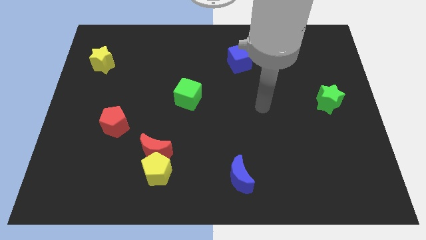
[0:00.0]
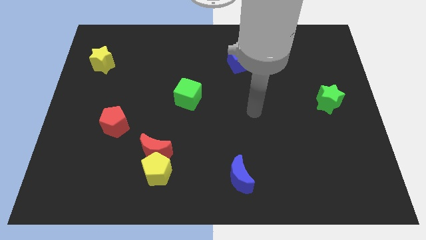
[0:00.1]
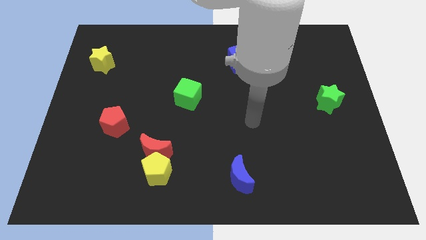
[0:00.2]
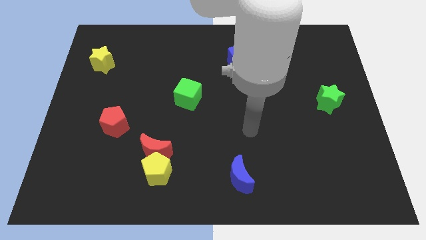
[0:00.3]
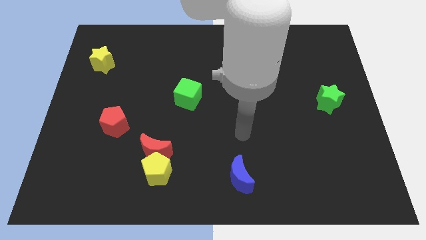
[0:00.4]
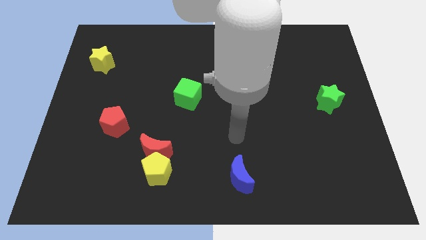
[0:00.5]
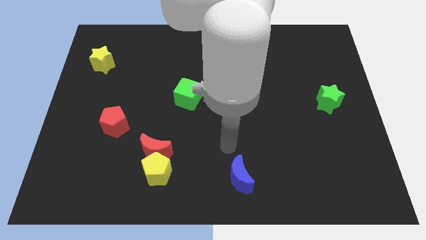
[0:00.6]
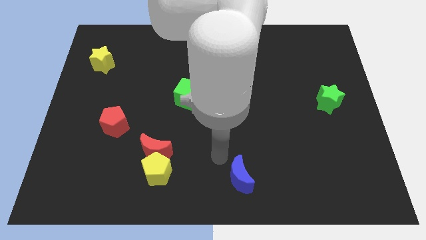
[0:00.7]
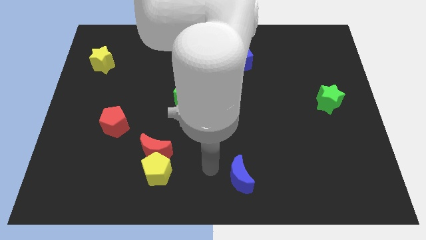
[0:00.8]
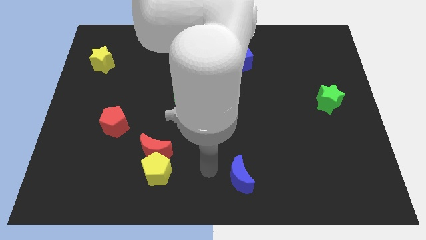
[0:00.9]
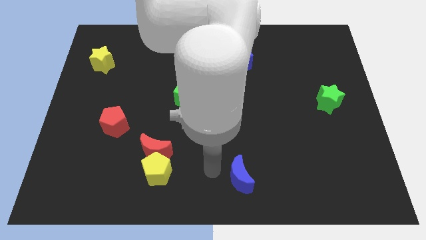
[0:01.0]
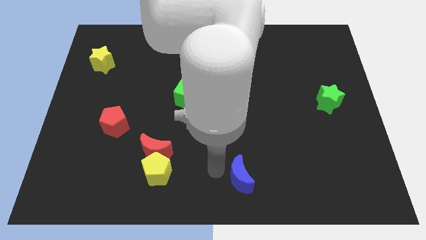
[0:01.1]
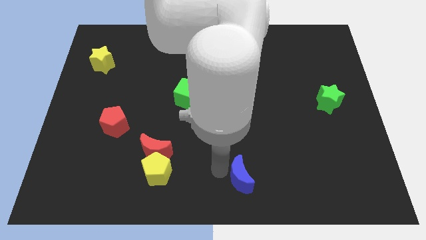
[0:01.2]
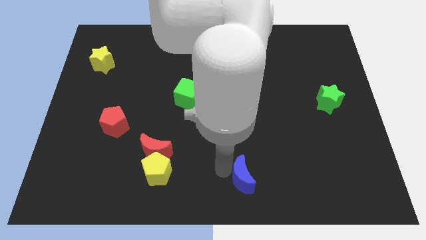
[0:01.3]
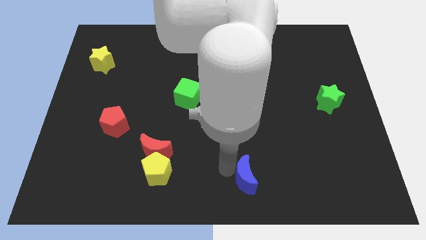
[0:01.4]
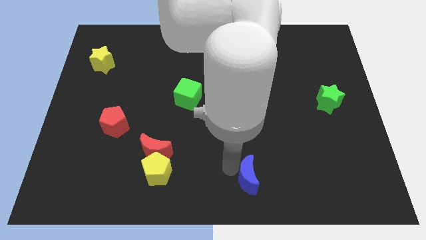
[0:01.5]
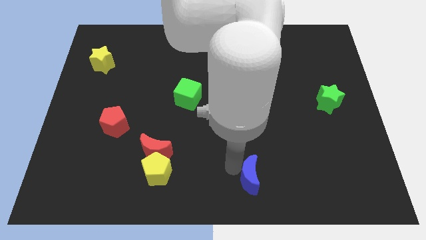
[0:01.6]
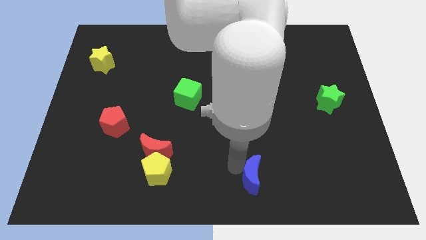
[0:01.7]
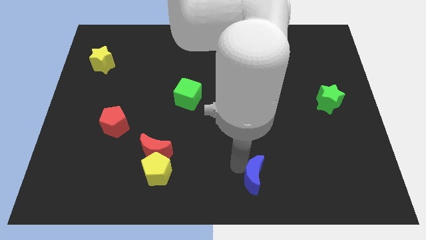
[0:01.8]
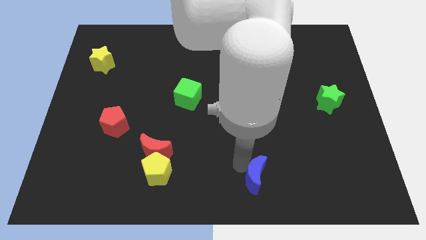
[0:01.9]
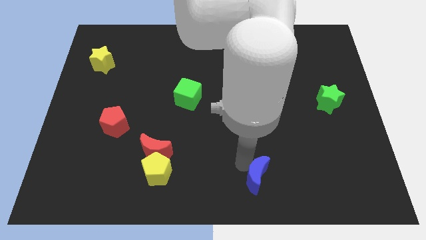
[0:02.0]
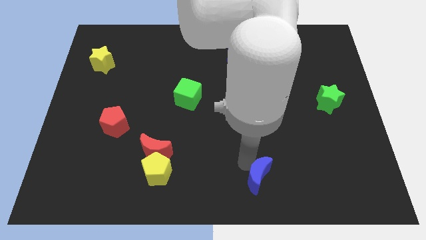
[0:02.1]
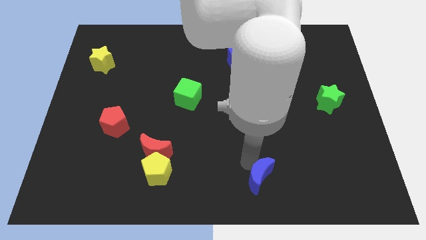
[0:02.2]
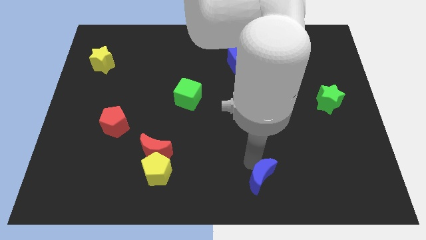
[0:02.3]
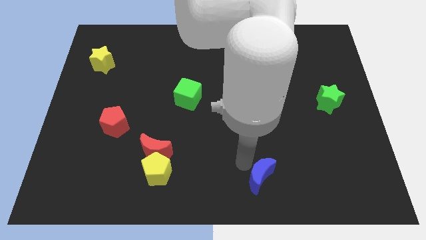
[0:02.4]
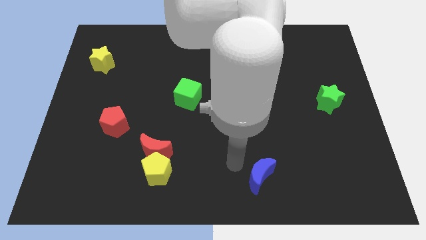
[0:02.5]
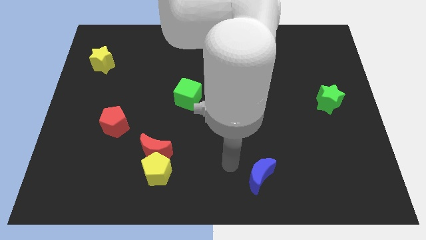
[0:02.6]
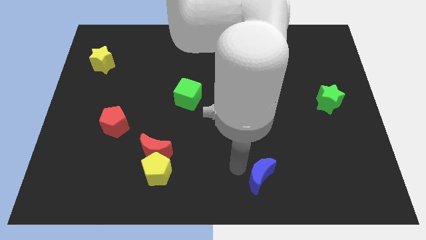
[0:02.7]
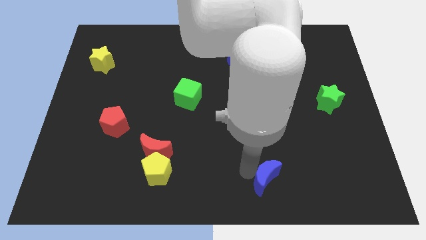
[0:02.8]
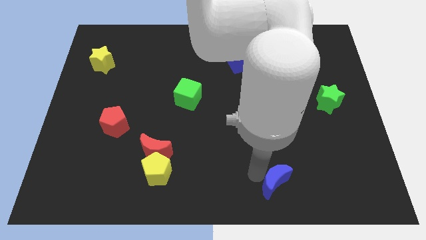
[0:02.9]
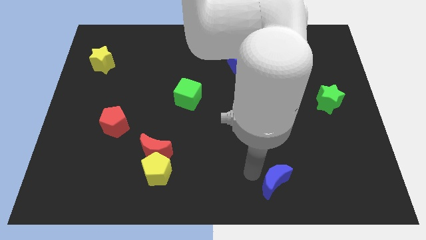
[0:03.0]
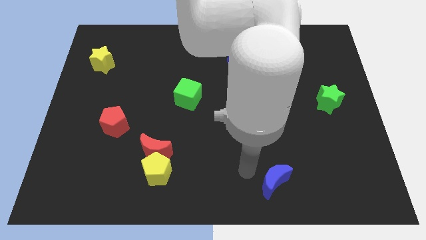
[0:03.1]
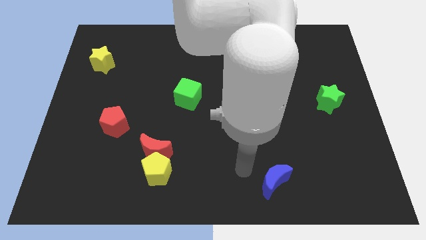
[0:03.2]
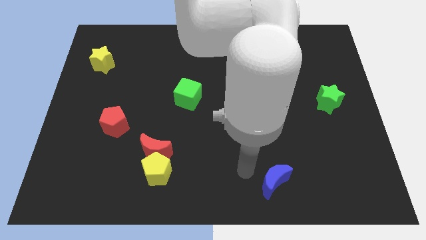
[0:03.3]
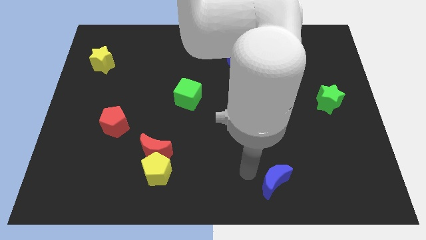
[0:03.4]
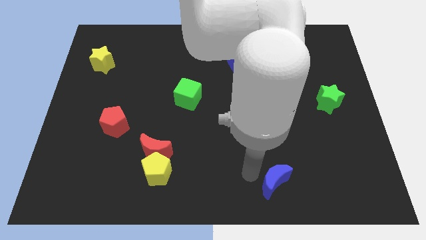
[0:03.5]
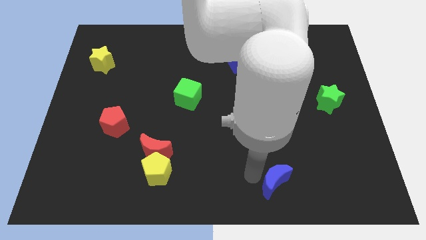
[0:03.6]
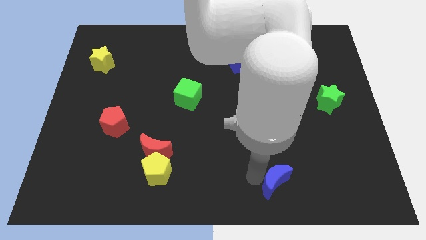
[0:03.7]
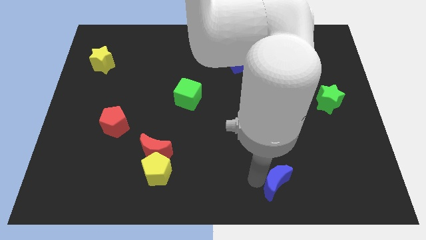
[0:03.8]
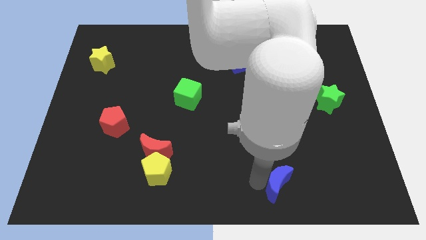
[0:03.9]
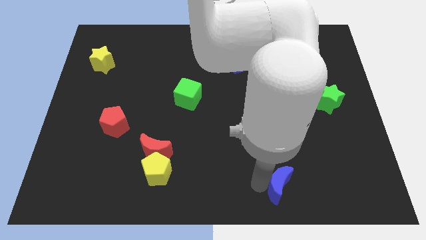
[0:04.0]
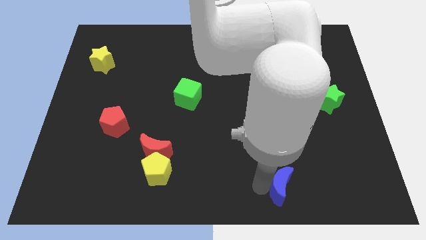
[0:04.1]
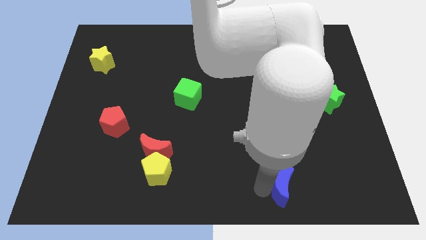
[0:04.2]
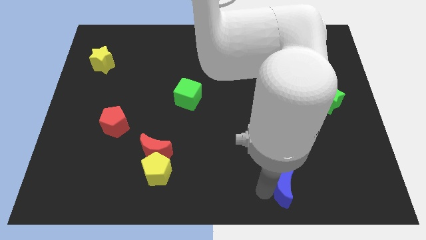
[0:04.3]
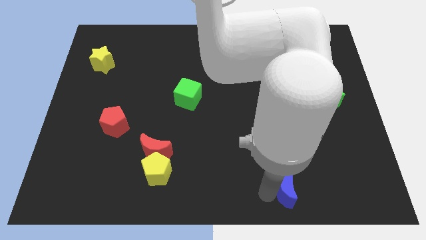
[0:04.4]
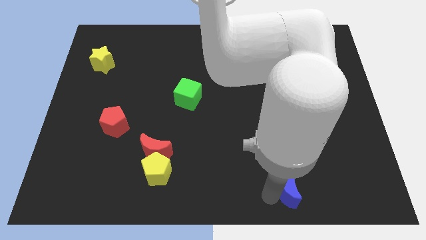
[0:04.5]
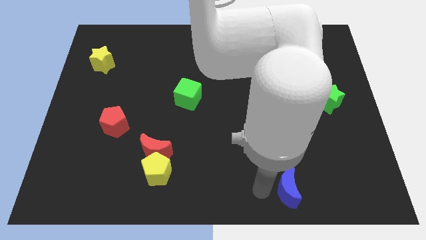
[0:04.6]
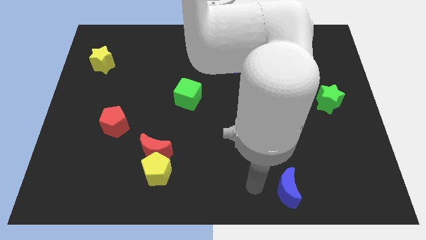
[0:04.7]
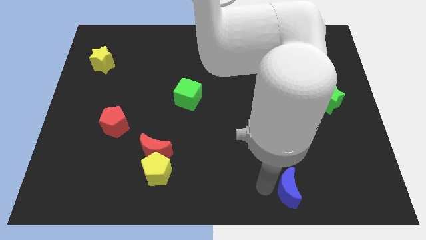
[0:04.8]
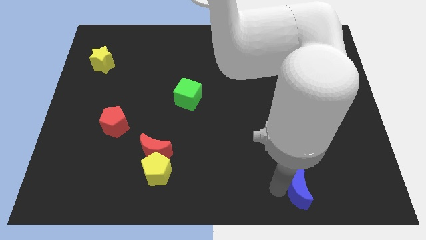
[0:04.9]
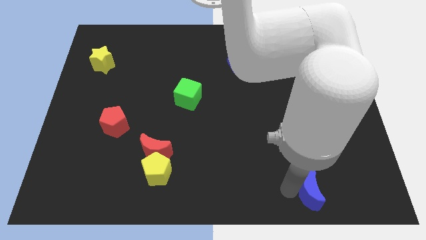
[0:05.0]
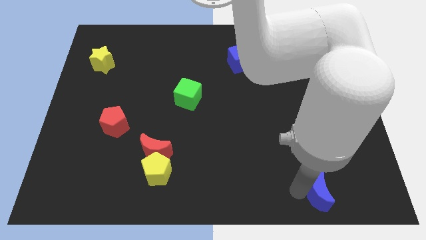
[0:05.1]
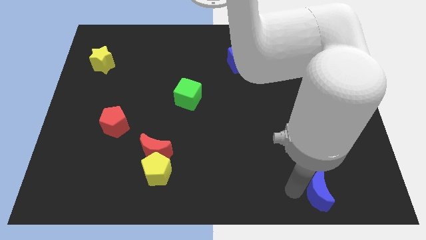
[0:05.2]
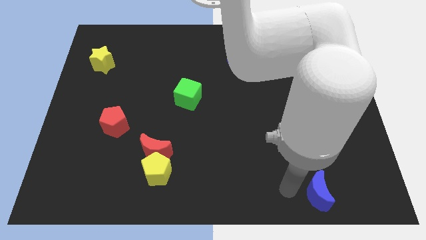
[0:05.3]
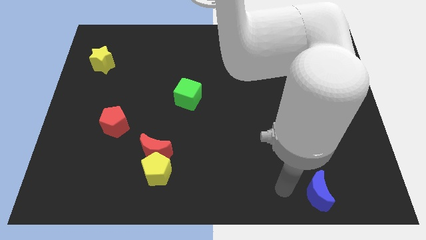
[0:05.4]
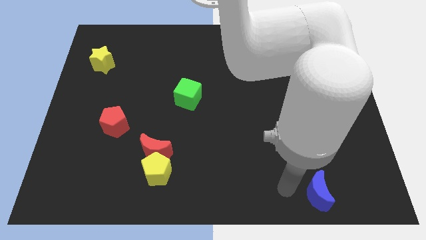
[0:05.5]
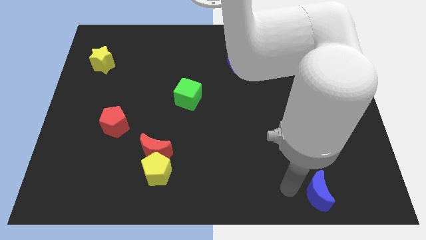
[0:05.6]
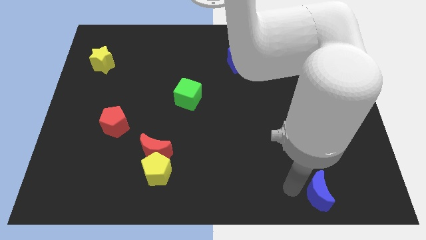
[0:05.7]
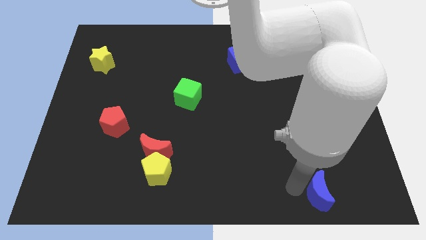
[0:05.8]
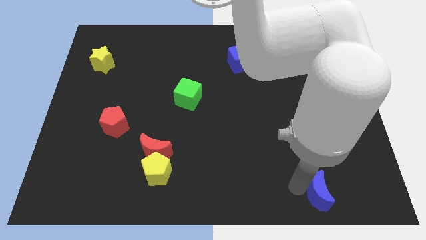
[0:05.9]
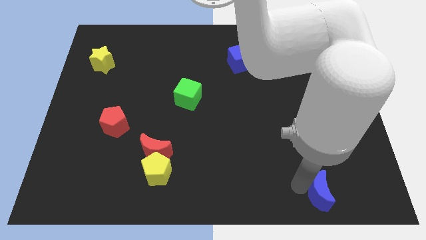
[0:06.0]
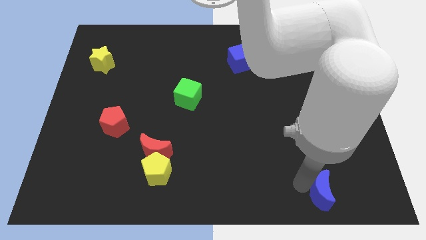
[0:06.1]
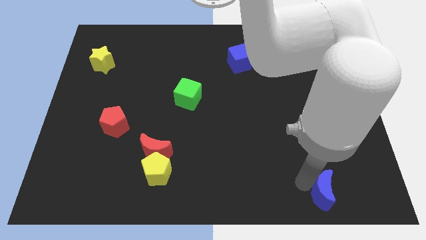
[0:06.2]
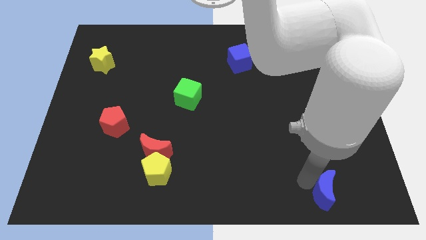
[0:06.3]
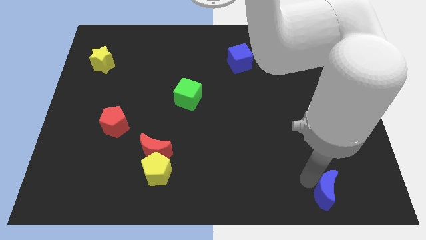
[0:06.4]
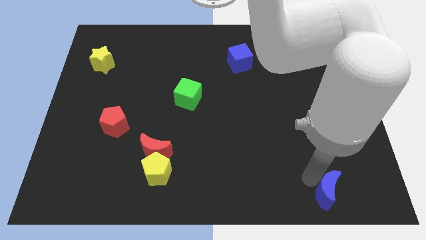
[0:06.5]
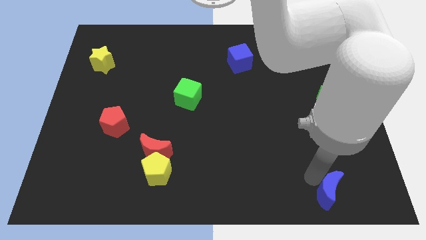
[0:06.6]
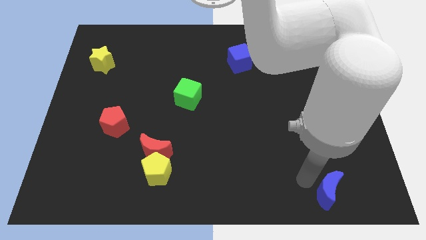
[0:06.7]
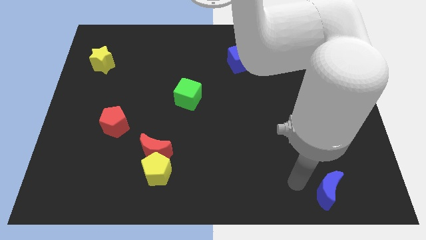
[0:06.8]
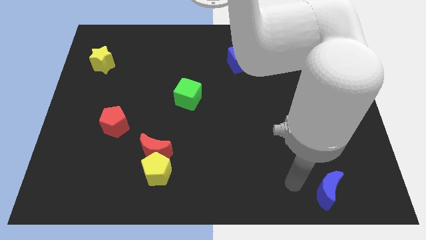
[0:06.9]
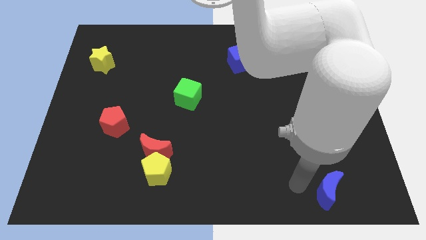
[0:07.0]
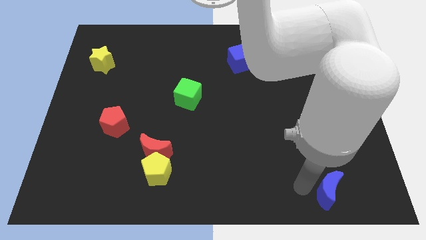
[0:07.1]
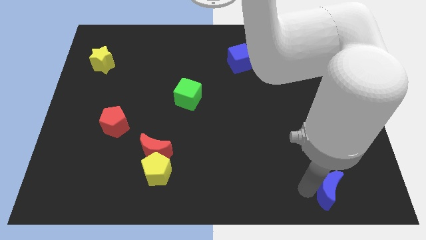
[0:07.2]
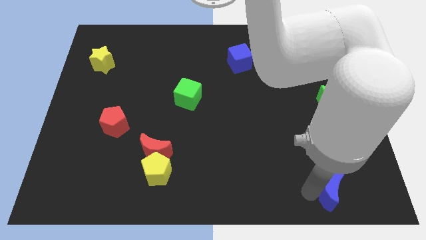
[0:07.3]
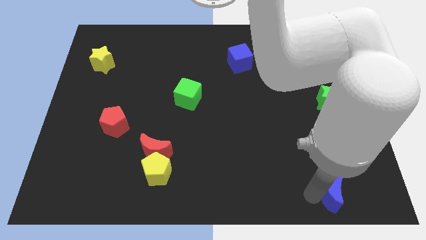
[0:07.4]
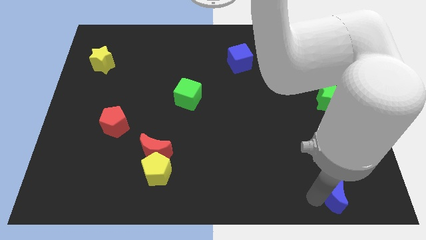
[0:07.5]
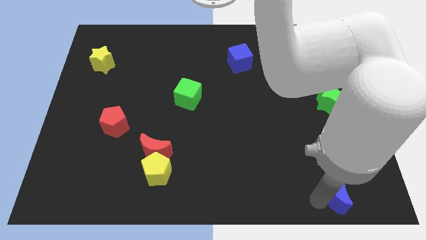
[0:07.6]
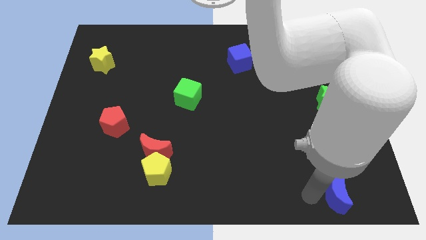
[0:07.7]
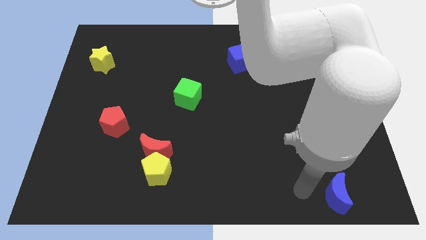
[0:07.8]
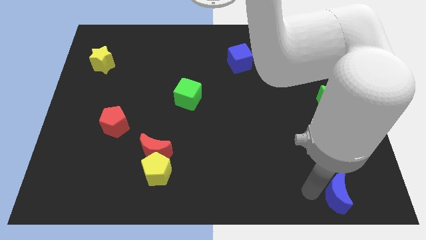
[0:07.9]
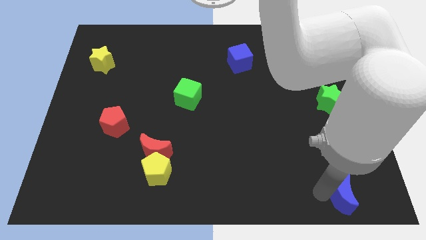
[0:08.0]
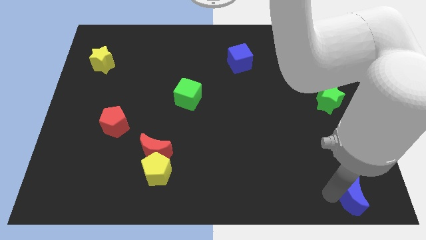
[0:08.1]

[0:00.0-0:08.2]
push the blue moon to the bottom right

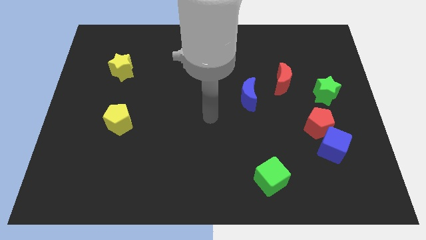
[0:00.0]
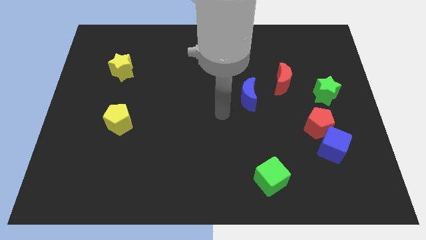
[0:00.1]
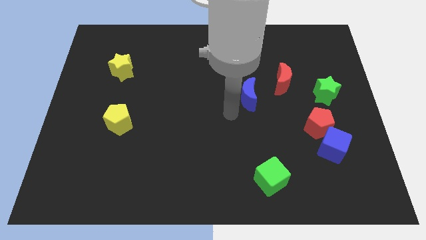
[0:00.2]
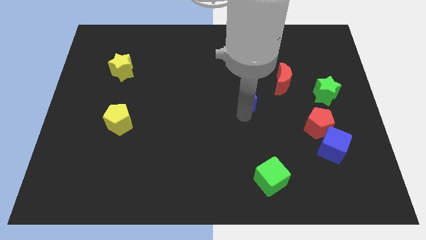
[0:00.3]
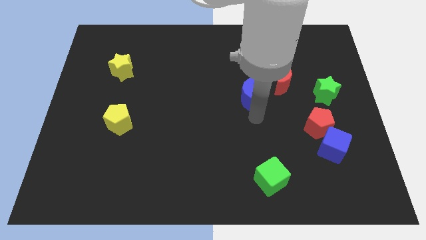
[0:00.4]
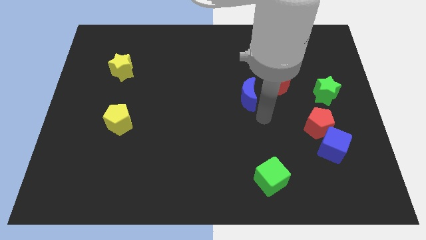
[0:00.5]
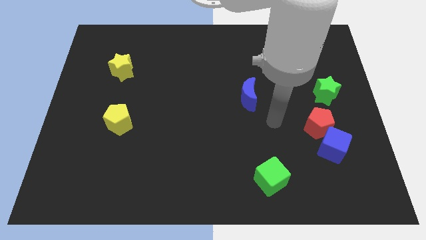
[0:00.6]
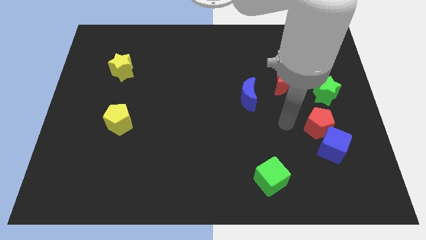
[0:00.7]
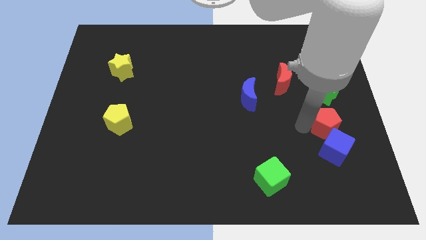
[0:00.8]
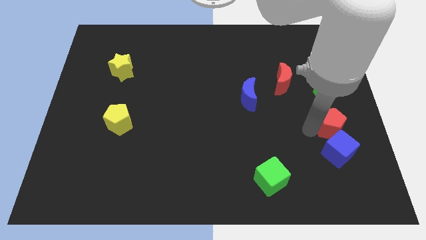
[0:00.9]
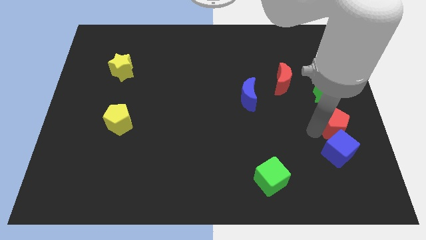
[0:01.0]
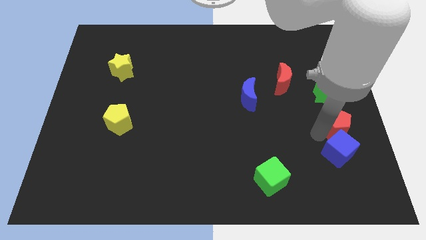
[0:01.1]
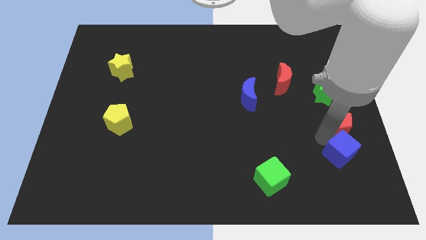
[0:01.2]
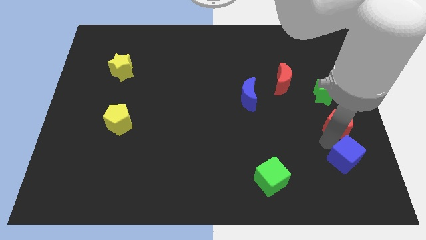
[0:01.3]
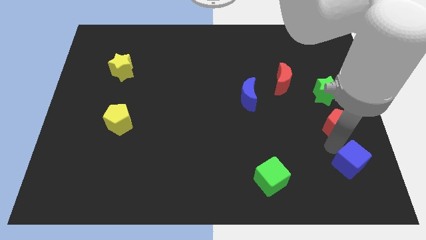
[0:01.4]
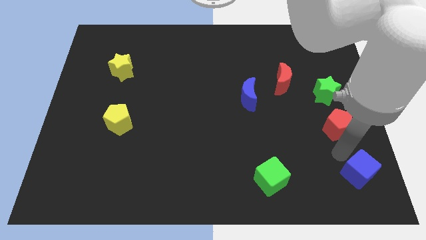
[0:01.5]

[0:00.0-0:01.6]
slide the blue cube to the bottom right corner
